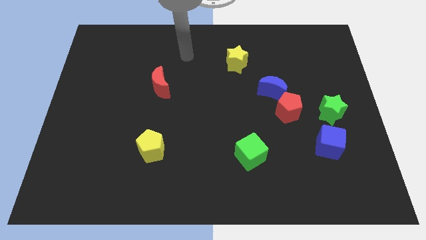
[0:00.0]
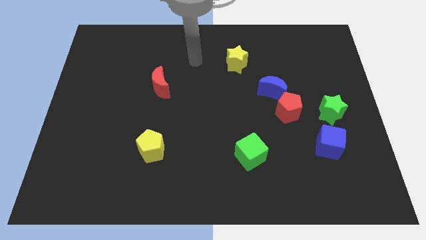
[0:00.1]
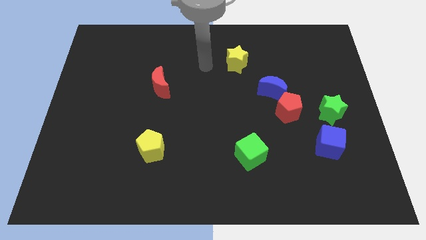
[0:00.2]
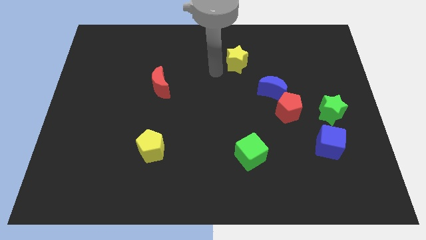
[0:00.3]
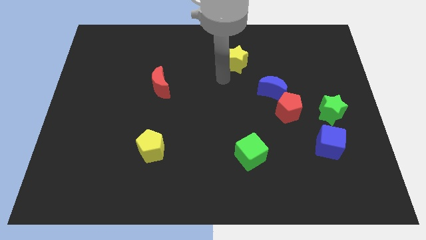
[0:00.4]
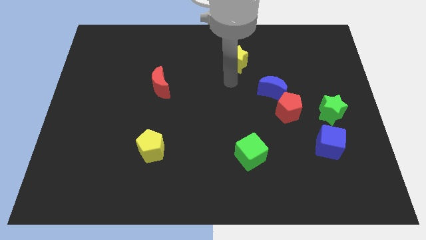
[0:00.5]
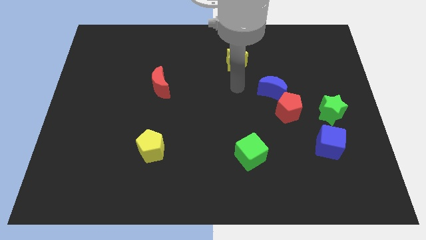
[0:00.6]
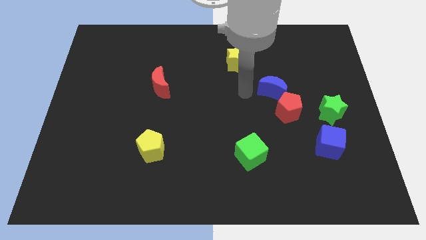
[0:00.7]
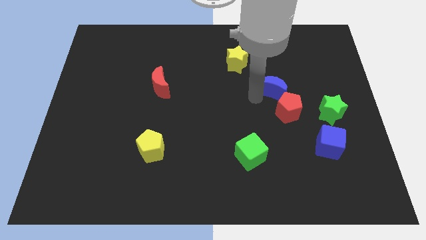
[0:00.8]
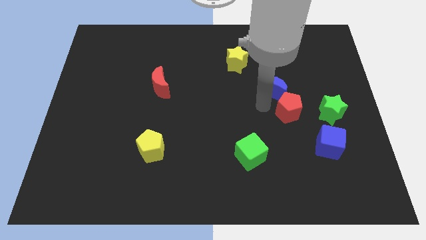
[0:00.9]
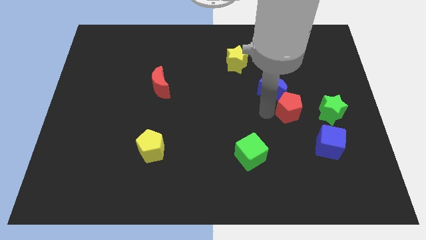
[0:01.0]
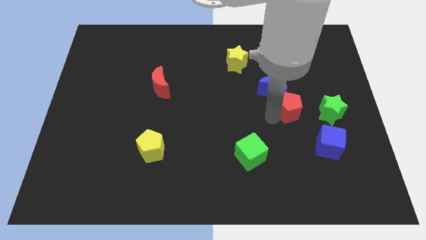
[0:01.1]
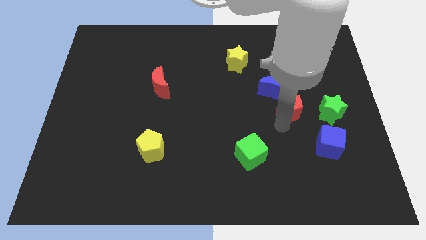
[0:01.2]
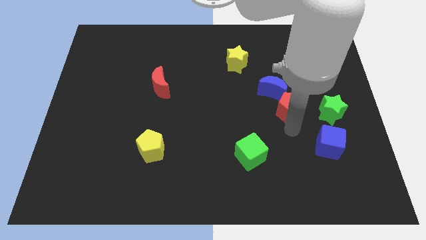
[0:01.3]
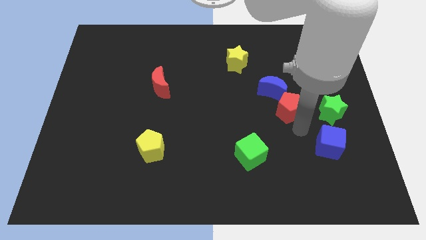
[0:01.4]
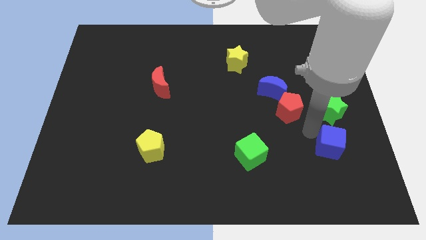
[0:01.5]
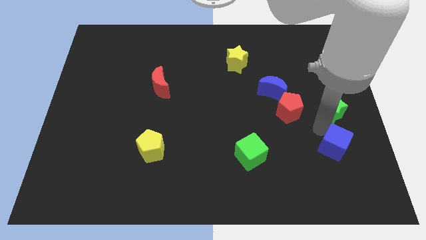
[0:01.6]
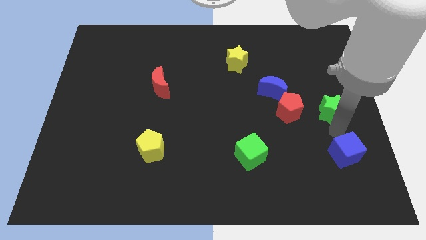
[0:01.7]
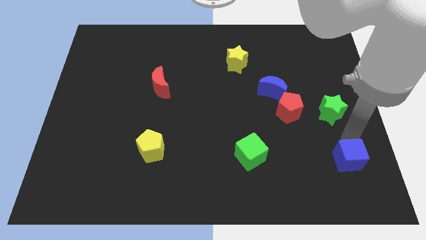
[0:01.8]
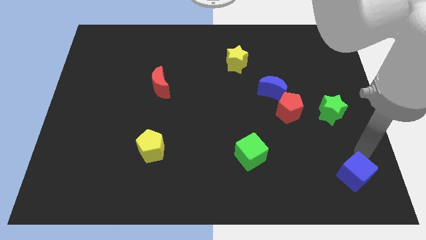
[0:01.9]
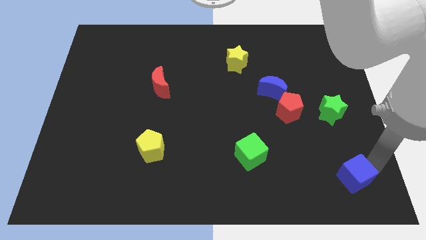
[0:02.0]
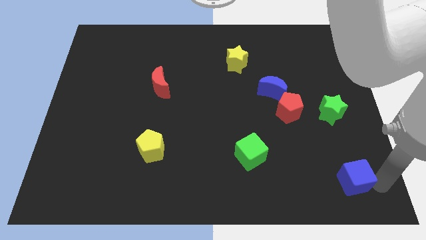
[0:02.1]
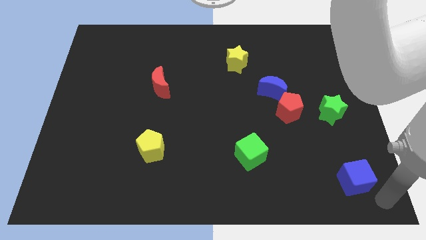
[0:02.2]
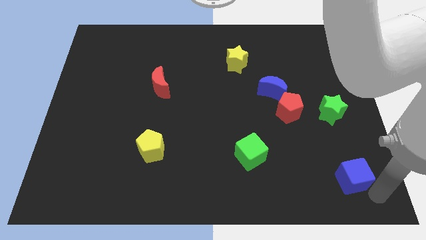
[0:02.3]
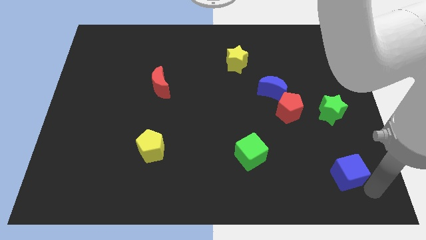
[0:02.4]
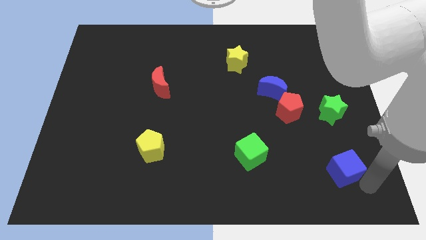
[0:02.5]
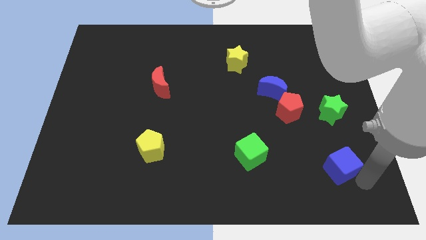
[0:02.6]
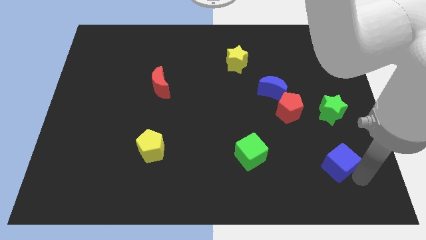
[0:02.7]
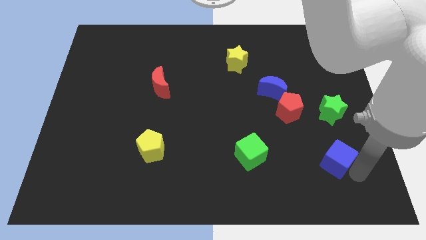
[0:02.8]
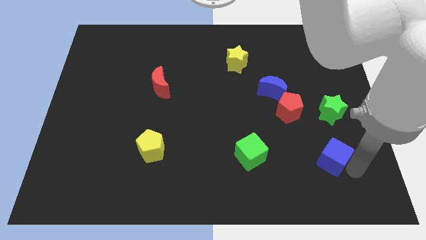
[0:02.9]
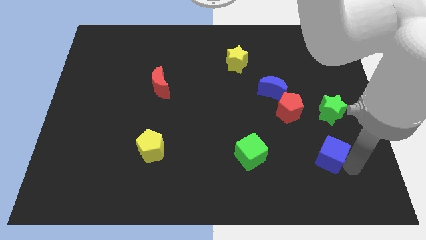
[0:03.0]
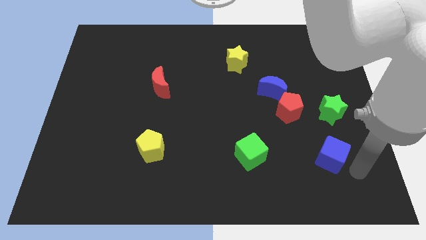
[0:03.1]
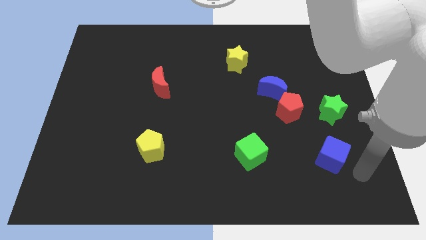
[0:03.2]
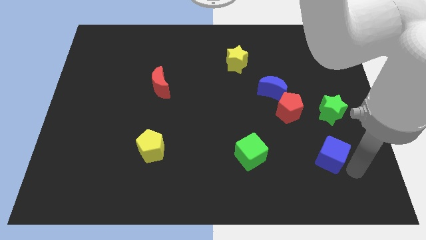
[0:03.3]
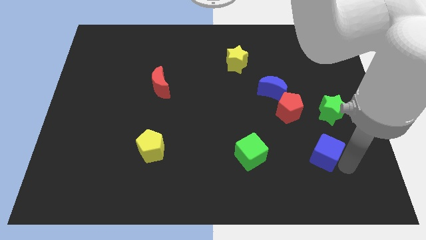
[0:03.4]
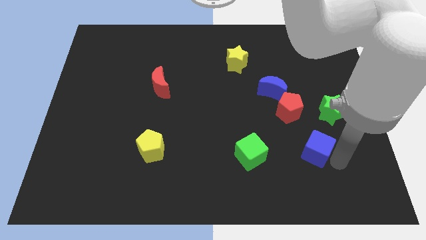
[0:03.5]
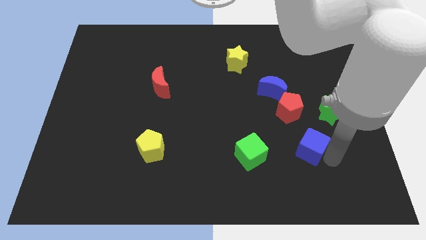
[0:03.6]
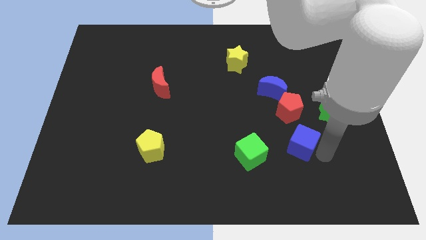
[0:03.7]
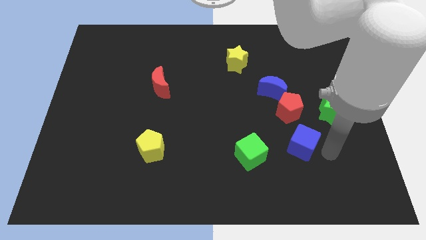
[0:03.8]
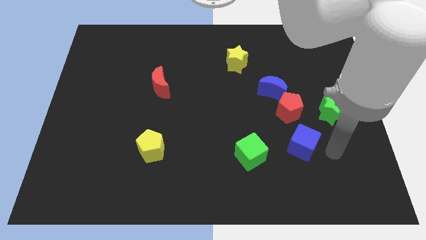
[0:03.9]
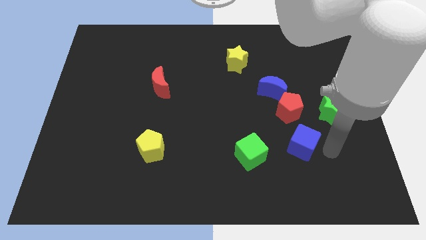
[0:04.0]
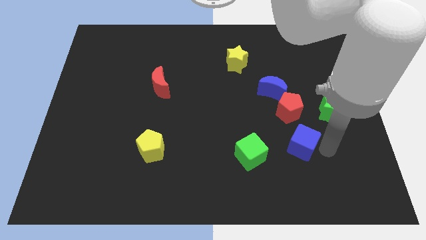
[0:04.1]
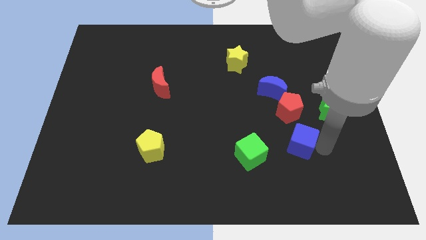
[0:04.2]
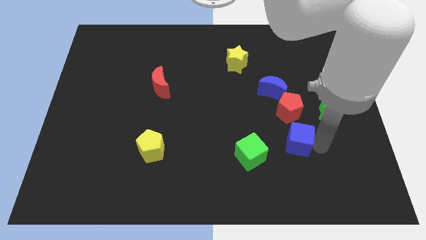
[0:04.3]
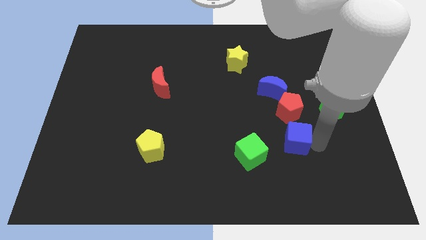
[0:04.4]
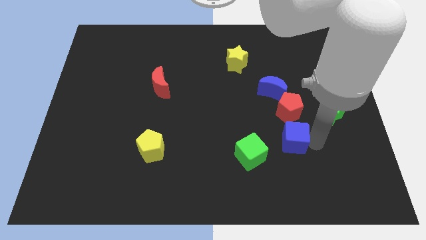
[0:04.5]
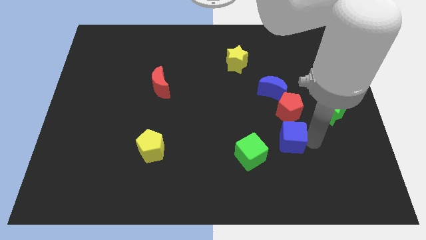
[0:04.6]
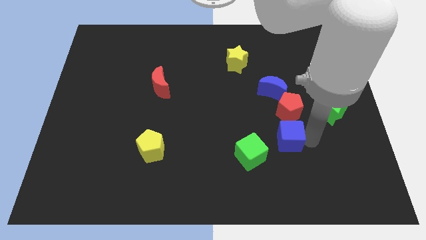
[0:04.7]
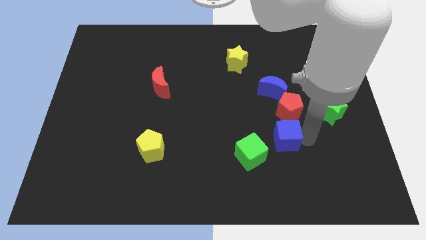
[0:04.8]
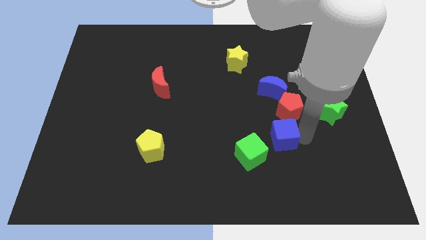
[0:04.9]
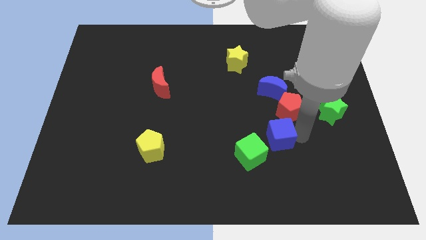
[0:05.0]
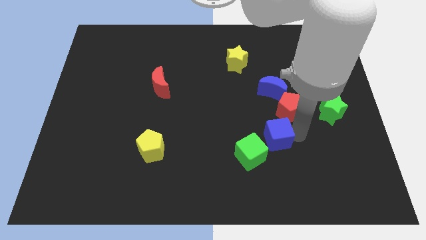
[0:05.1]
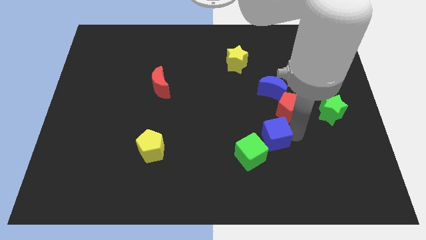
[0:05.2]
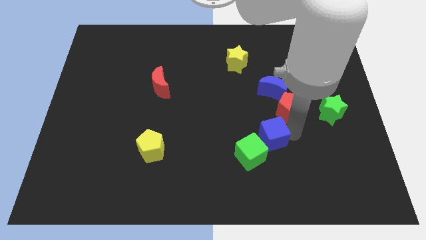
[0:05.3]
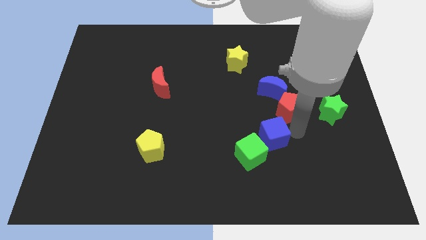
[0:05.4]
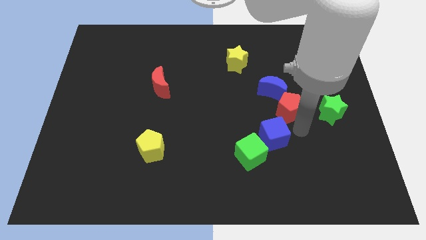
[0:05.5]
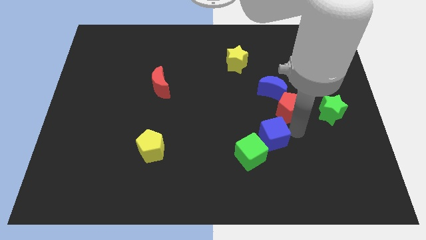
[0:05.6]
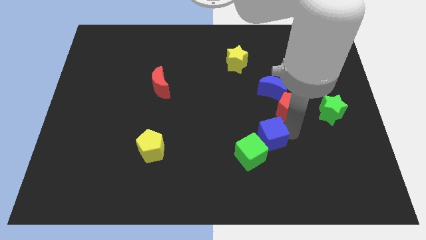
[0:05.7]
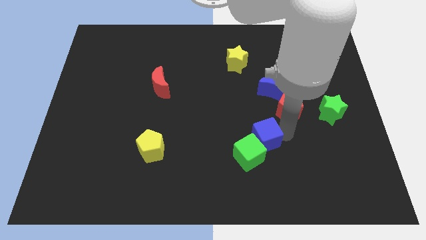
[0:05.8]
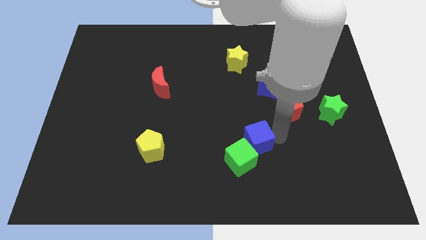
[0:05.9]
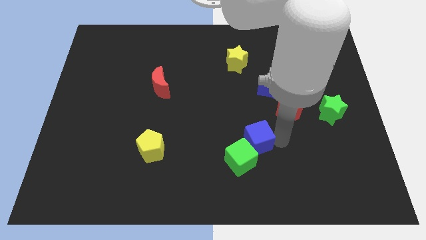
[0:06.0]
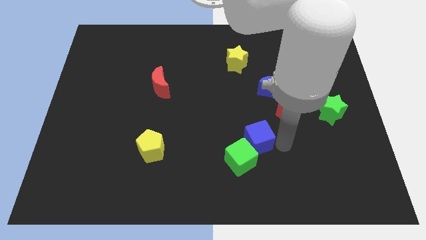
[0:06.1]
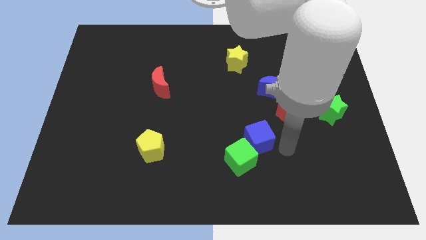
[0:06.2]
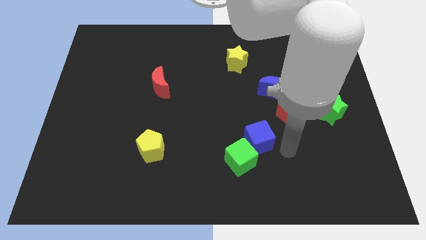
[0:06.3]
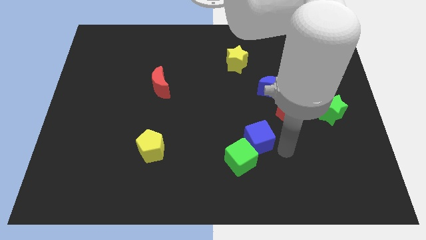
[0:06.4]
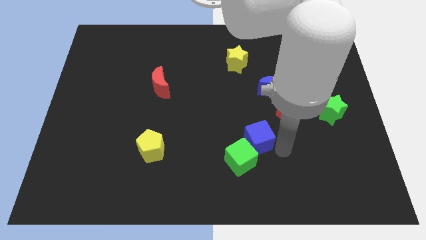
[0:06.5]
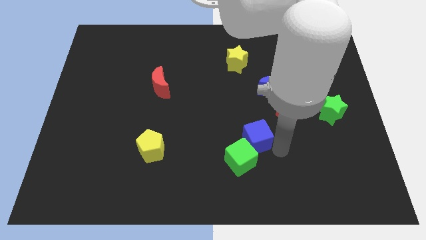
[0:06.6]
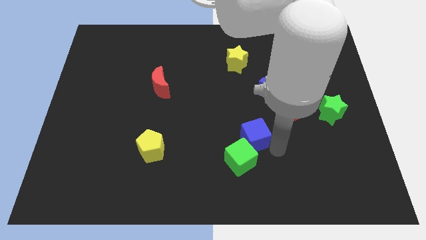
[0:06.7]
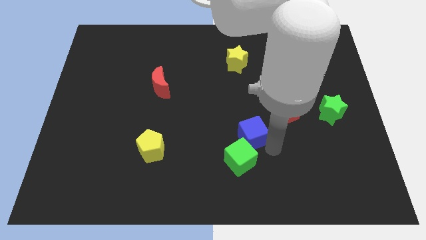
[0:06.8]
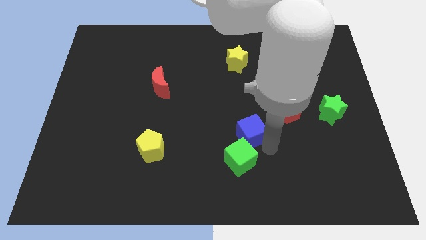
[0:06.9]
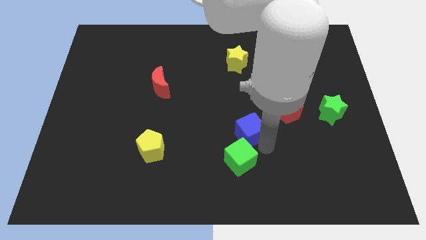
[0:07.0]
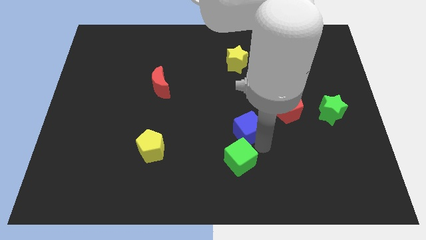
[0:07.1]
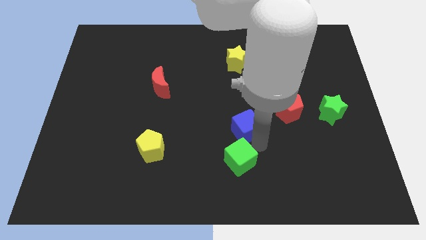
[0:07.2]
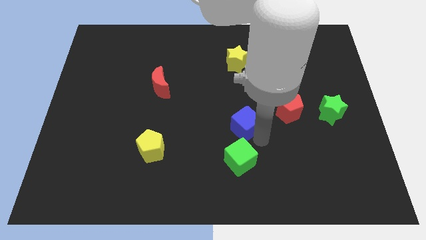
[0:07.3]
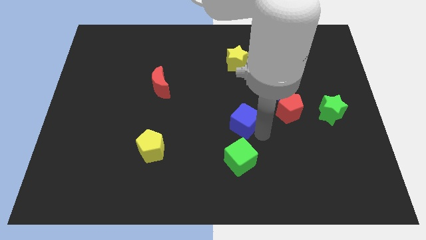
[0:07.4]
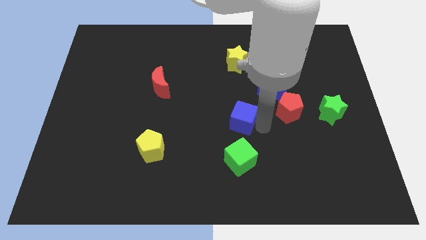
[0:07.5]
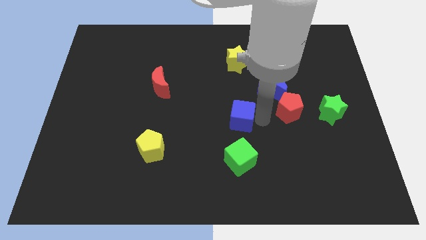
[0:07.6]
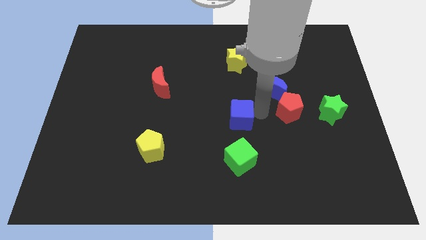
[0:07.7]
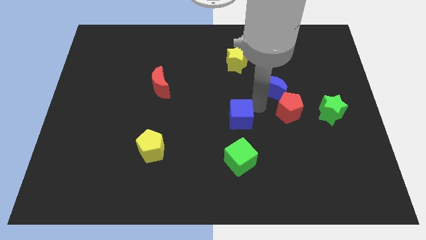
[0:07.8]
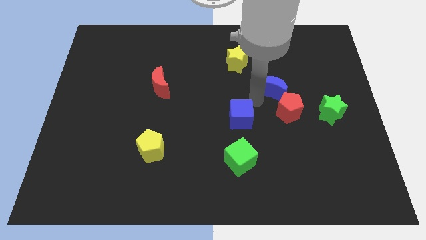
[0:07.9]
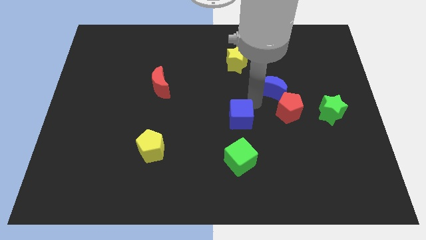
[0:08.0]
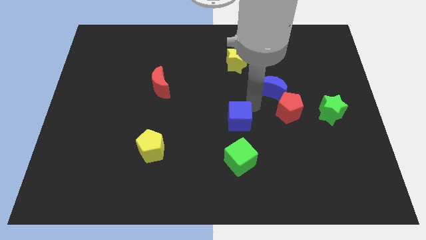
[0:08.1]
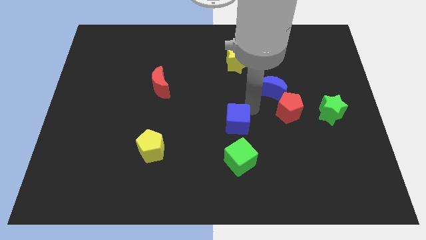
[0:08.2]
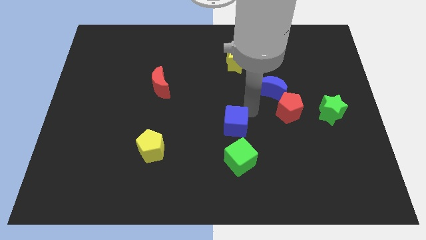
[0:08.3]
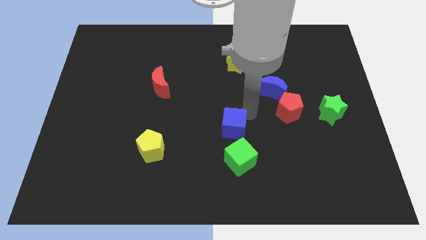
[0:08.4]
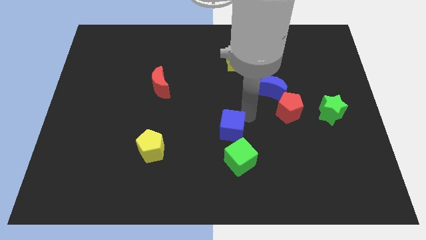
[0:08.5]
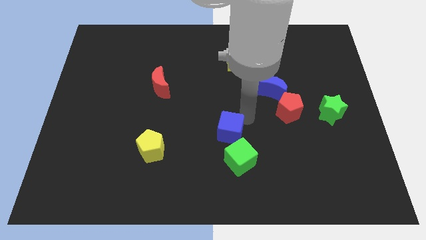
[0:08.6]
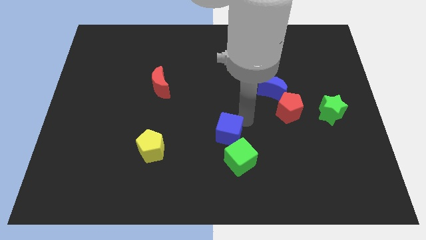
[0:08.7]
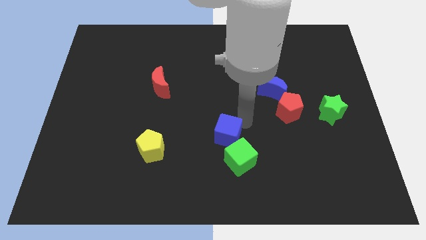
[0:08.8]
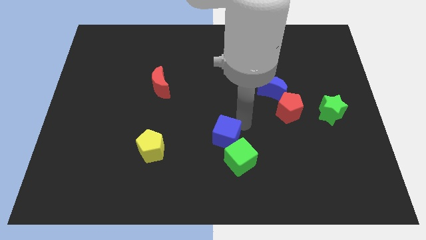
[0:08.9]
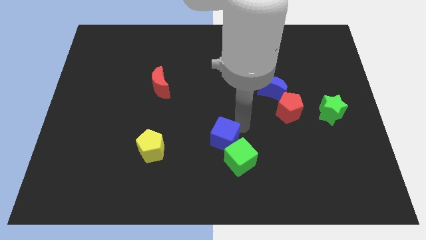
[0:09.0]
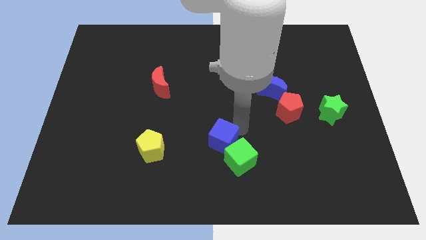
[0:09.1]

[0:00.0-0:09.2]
put the blue cube just right of the yellow pentagon
